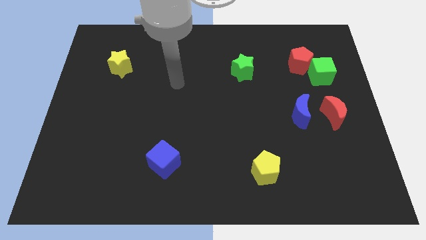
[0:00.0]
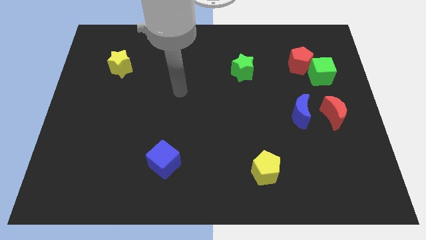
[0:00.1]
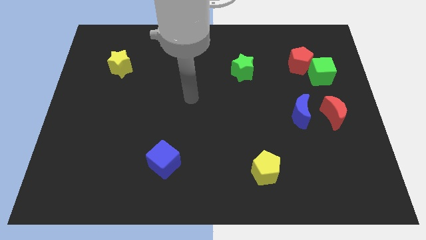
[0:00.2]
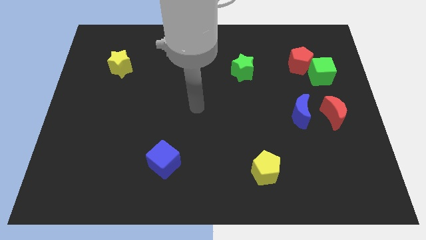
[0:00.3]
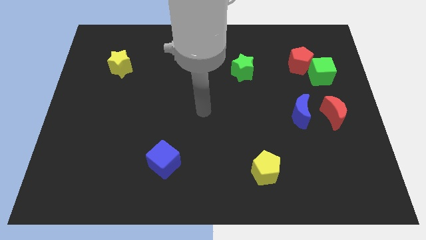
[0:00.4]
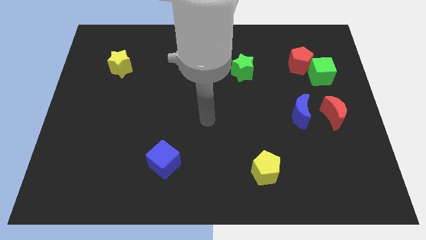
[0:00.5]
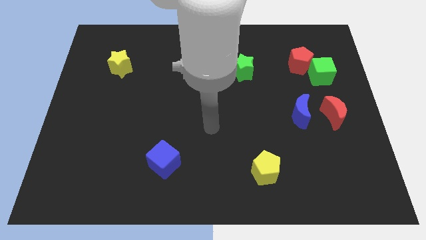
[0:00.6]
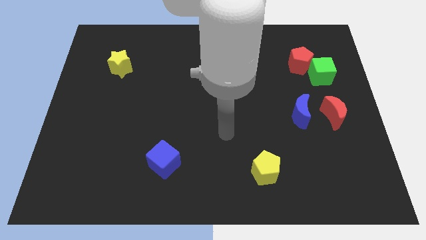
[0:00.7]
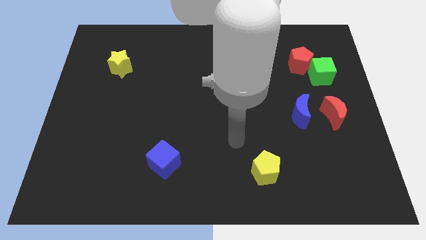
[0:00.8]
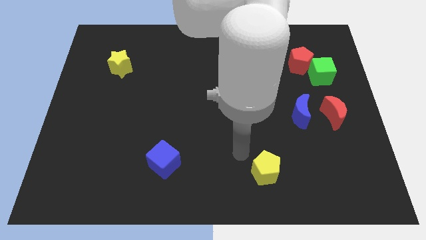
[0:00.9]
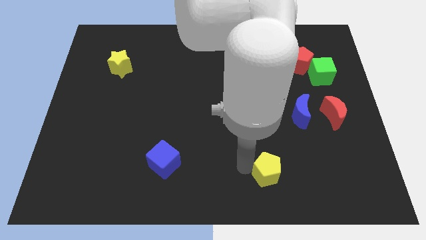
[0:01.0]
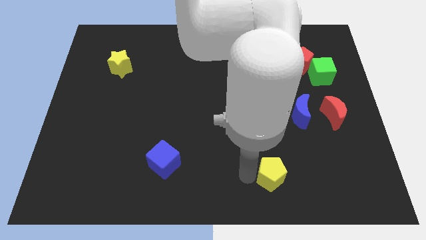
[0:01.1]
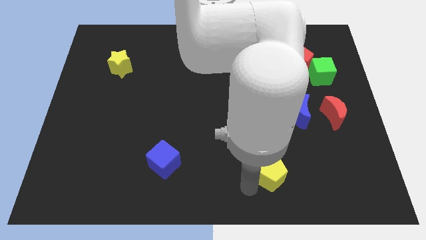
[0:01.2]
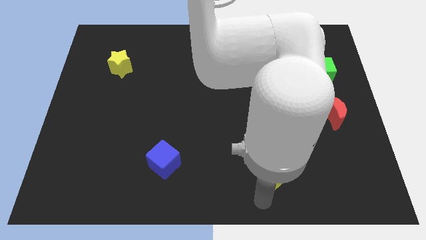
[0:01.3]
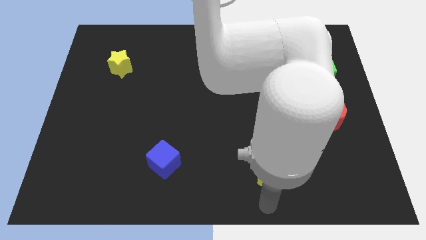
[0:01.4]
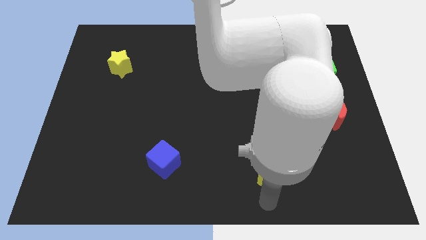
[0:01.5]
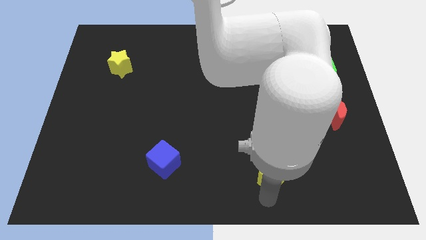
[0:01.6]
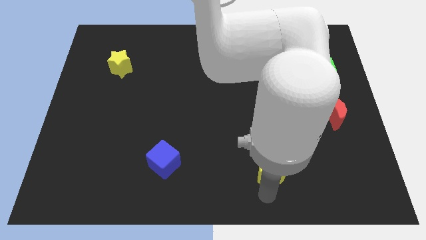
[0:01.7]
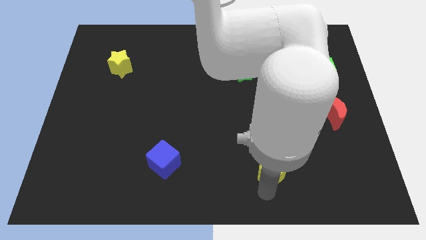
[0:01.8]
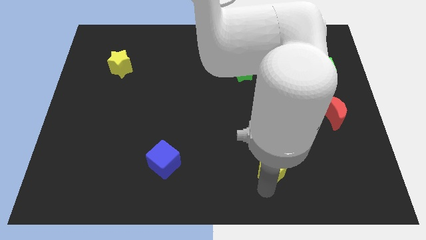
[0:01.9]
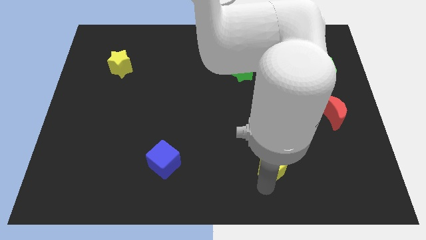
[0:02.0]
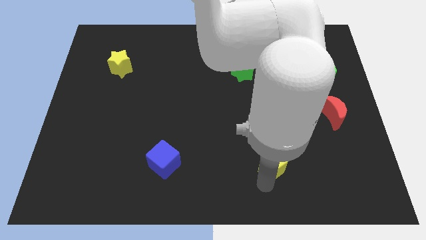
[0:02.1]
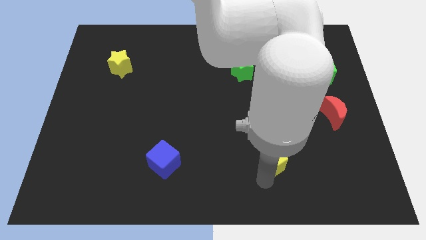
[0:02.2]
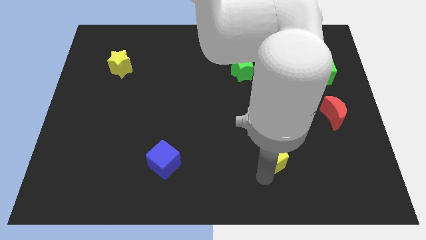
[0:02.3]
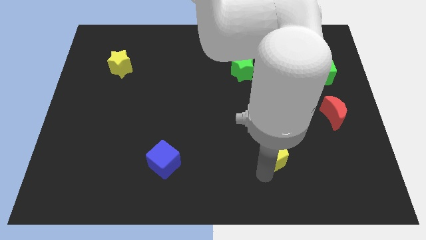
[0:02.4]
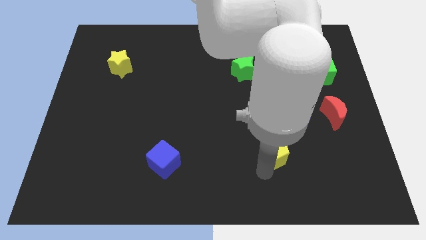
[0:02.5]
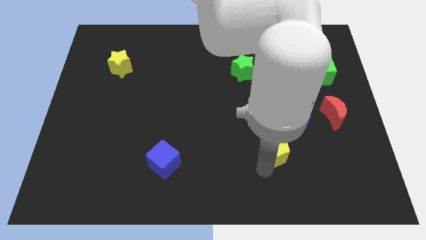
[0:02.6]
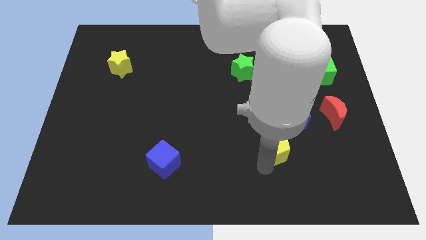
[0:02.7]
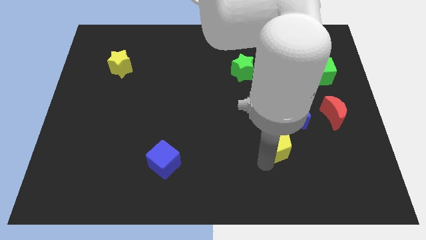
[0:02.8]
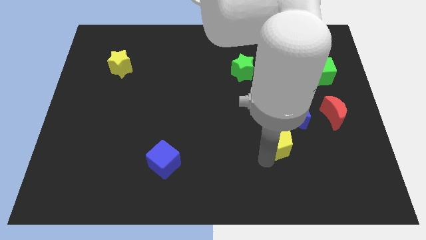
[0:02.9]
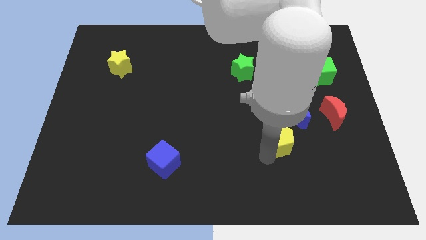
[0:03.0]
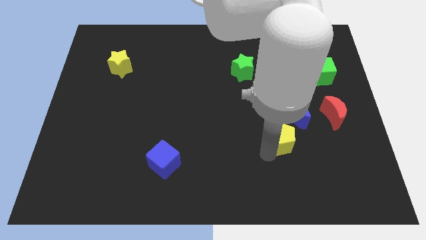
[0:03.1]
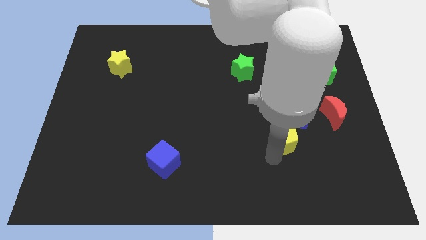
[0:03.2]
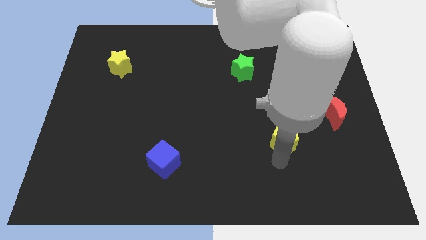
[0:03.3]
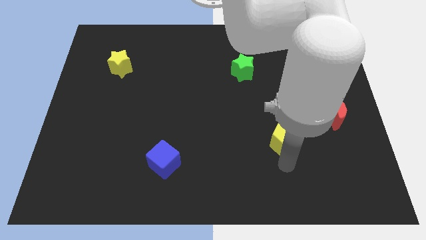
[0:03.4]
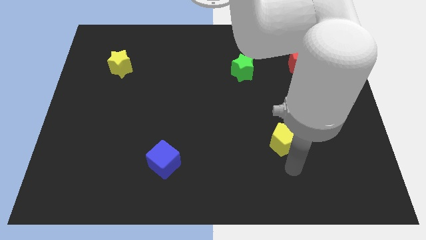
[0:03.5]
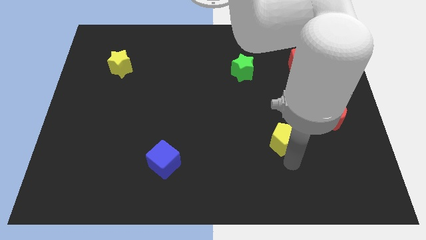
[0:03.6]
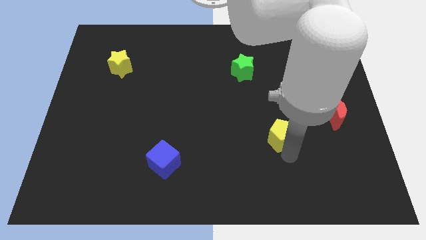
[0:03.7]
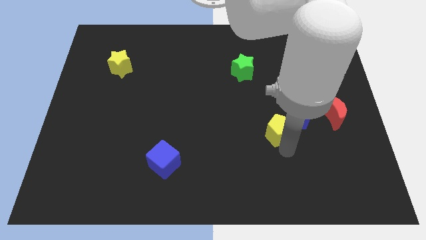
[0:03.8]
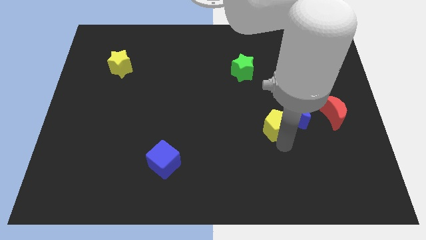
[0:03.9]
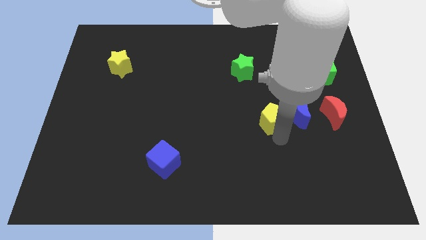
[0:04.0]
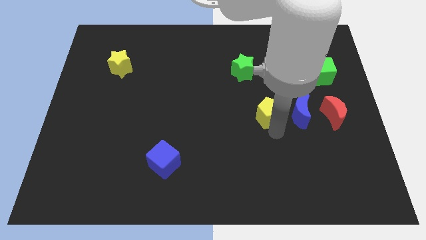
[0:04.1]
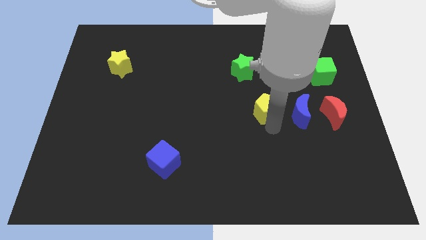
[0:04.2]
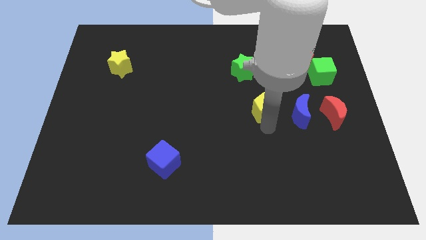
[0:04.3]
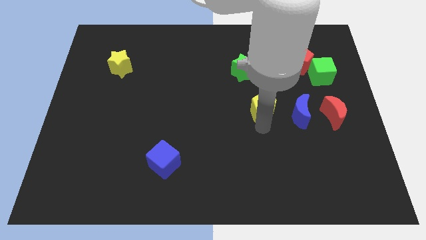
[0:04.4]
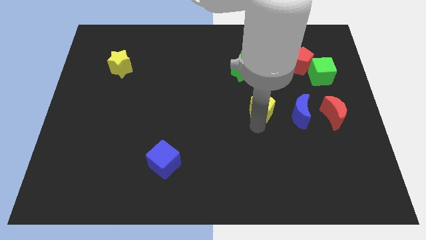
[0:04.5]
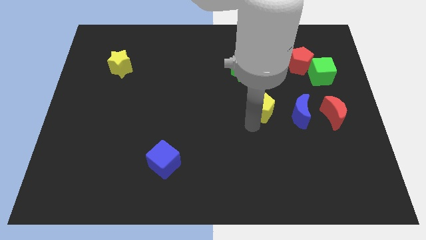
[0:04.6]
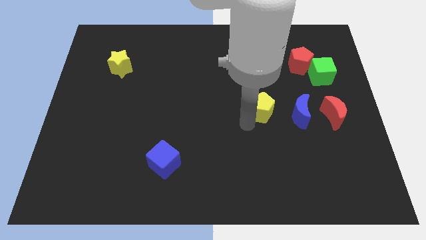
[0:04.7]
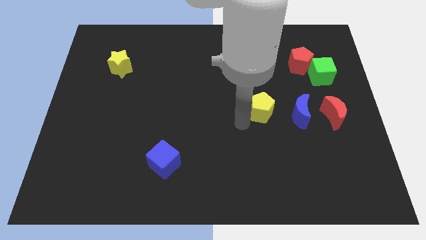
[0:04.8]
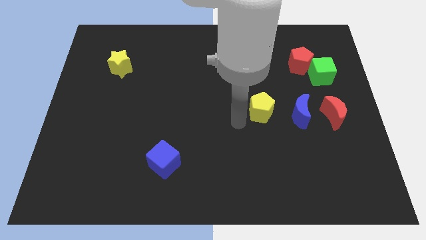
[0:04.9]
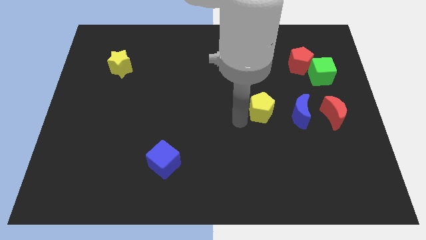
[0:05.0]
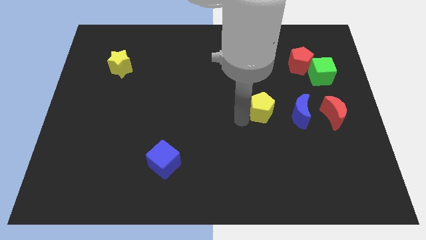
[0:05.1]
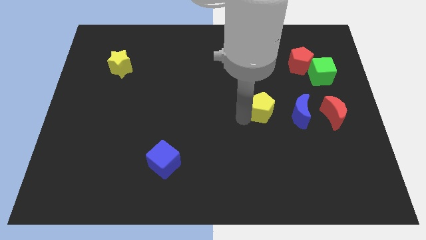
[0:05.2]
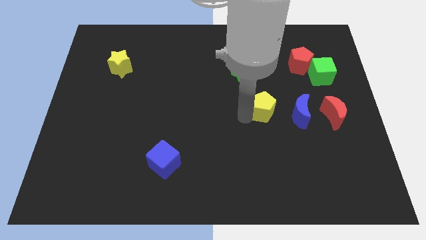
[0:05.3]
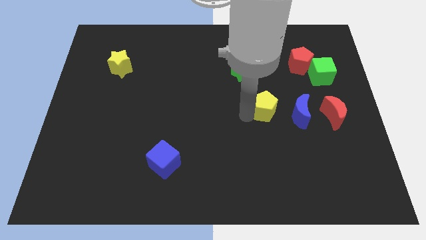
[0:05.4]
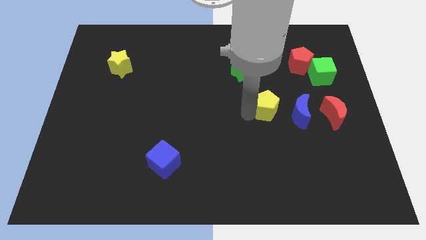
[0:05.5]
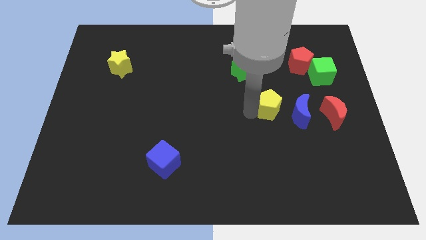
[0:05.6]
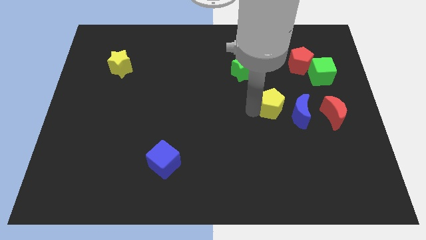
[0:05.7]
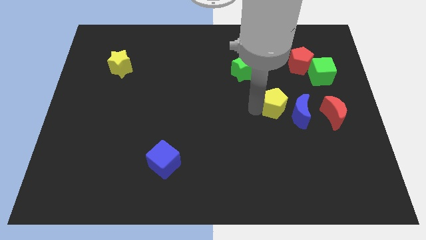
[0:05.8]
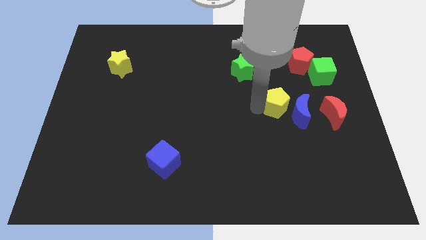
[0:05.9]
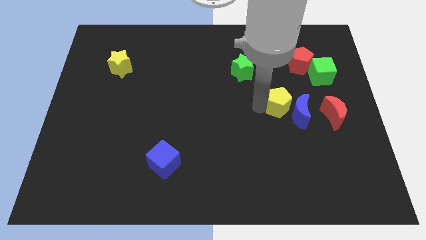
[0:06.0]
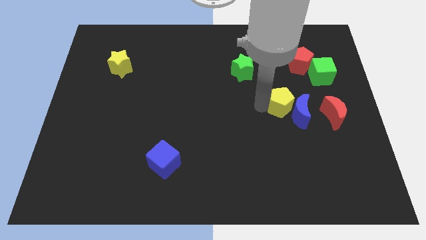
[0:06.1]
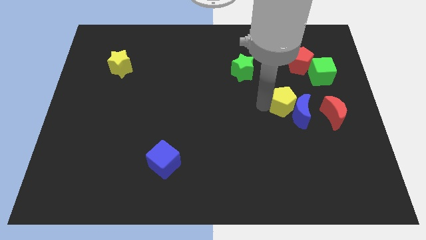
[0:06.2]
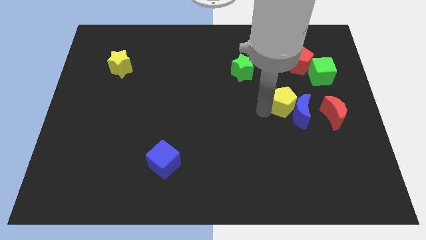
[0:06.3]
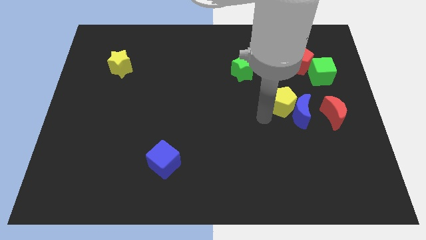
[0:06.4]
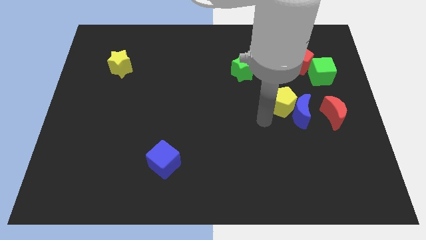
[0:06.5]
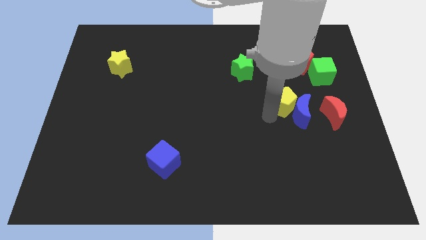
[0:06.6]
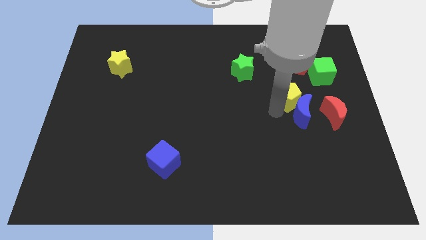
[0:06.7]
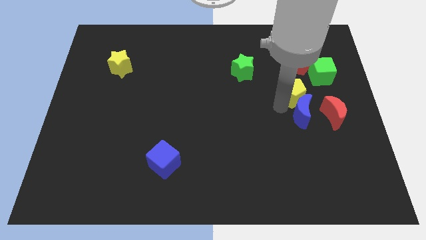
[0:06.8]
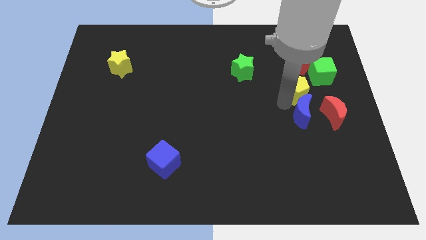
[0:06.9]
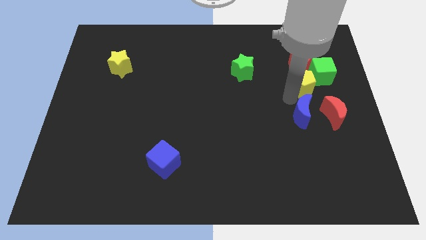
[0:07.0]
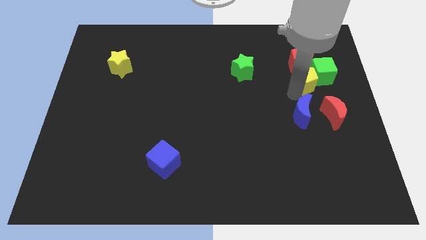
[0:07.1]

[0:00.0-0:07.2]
push the yellow pentagon next to the green cube
